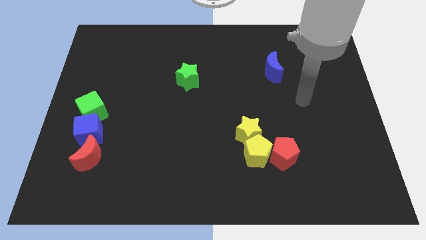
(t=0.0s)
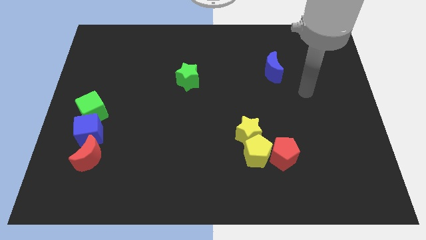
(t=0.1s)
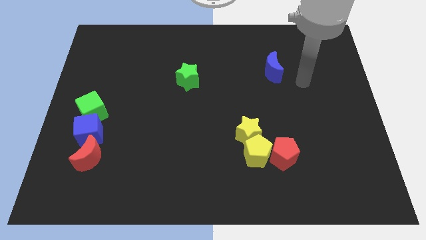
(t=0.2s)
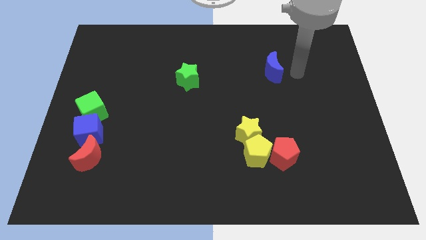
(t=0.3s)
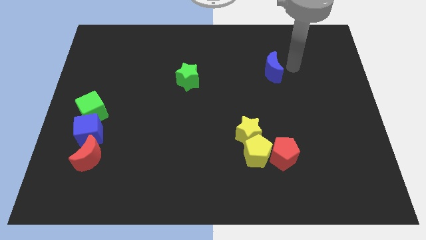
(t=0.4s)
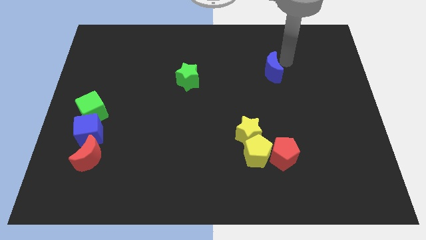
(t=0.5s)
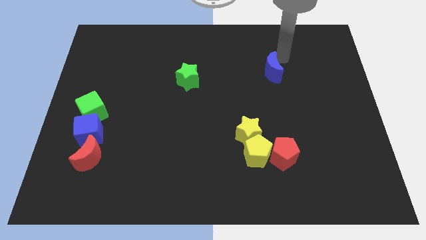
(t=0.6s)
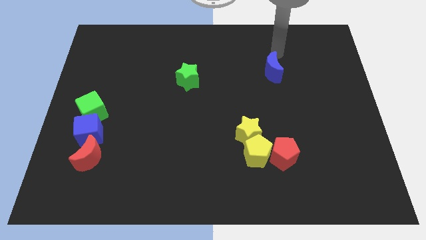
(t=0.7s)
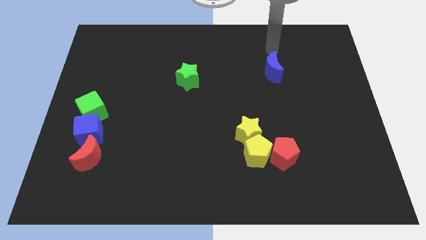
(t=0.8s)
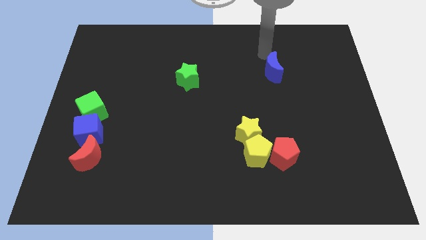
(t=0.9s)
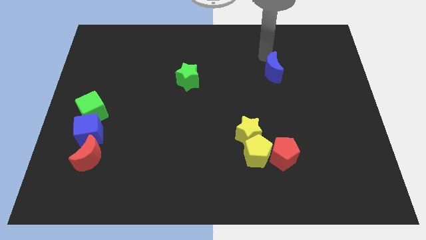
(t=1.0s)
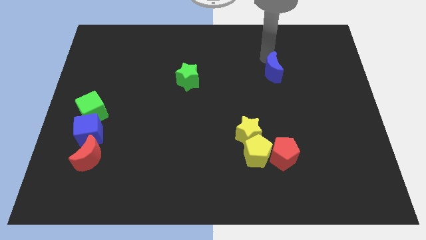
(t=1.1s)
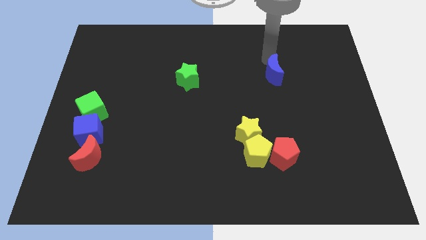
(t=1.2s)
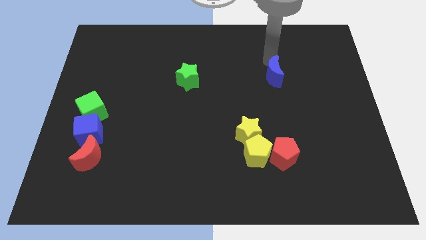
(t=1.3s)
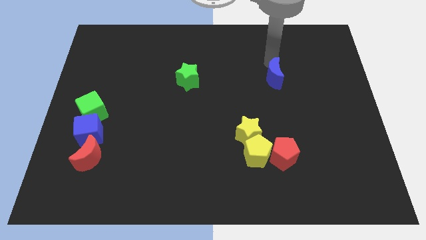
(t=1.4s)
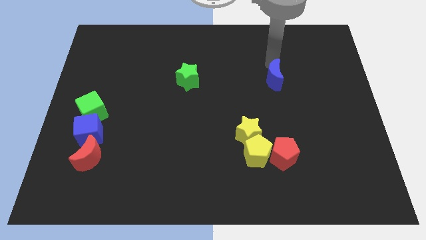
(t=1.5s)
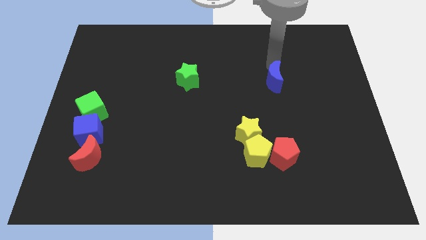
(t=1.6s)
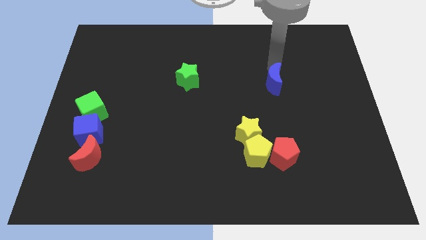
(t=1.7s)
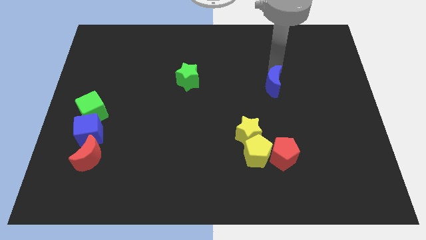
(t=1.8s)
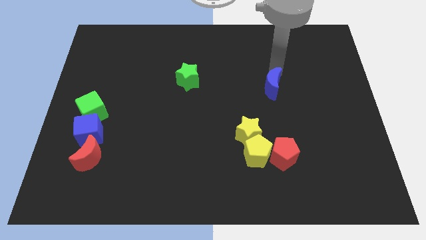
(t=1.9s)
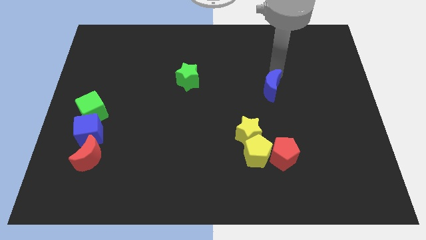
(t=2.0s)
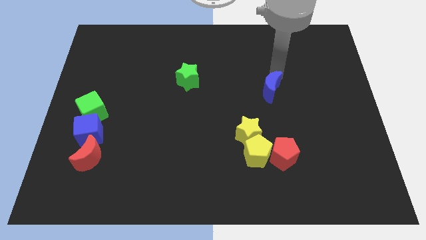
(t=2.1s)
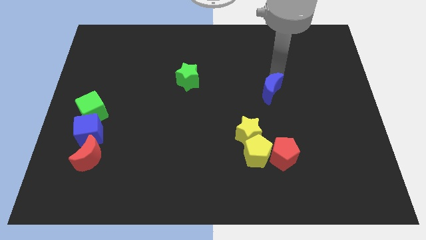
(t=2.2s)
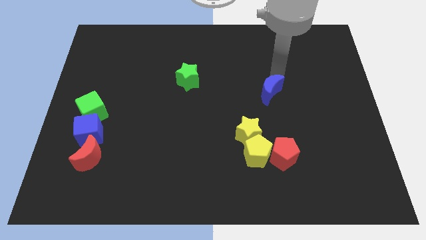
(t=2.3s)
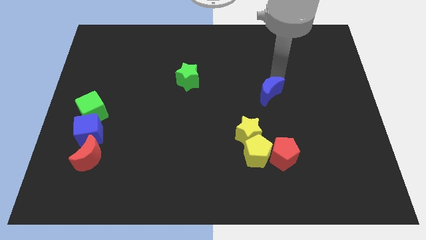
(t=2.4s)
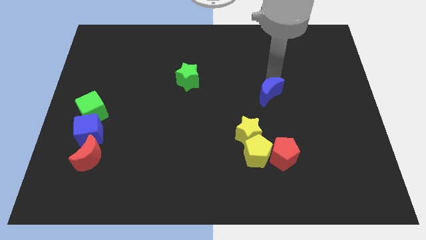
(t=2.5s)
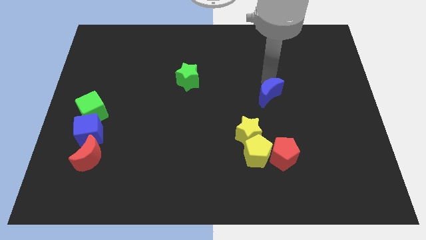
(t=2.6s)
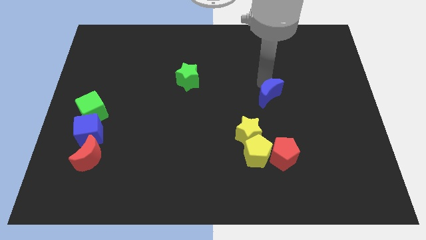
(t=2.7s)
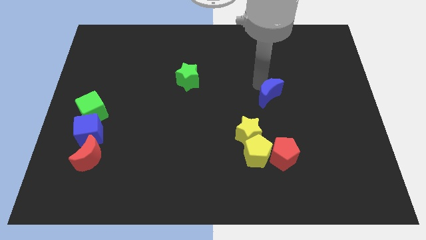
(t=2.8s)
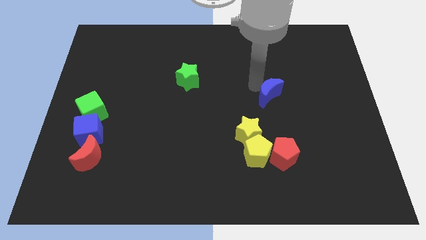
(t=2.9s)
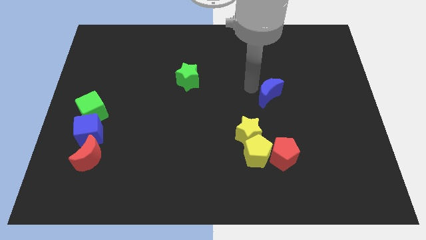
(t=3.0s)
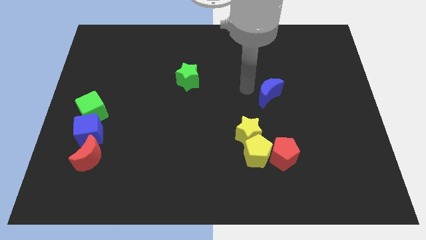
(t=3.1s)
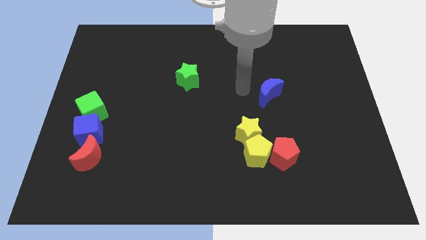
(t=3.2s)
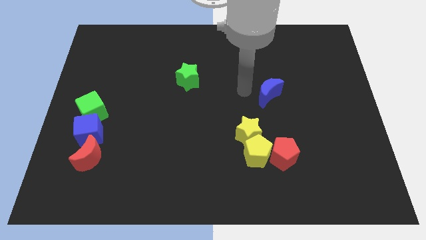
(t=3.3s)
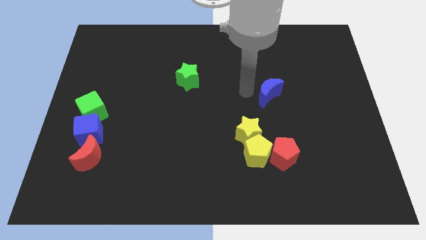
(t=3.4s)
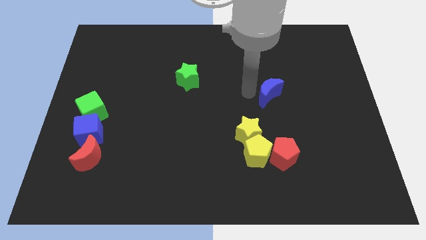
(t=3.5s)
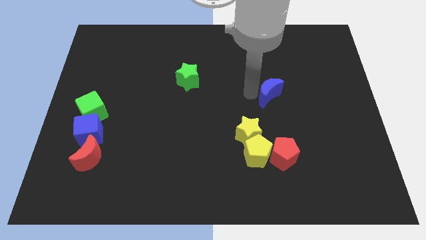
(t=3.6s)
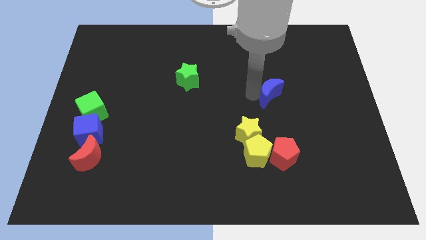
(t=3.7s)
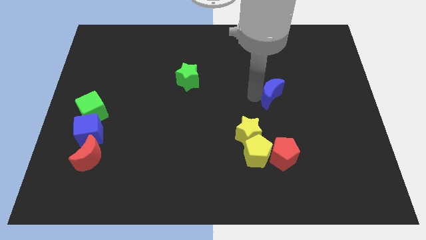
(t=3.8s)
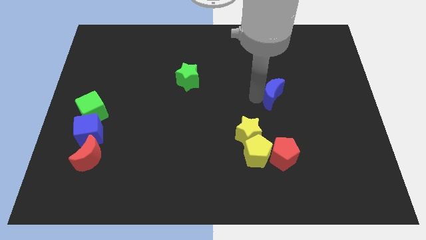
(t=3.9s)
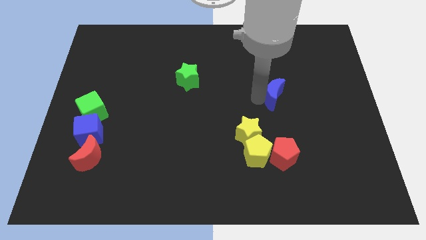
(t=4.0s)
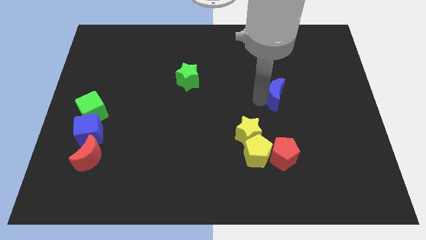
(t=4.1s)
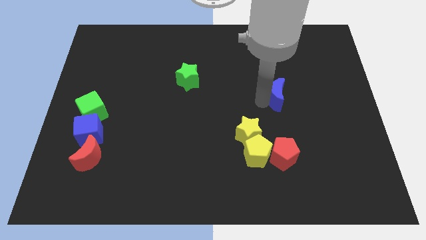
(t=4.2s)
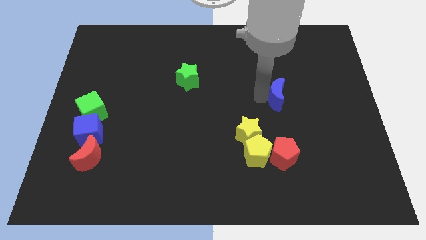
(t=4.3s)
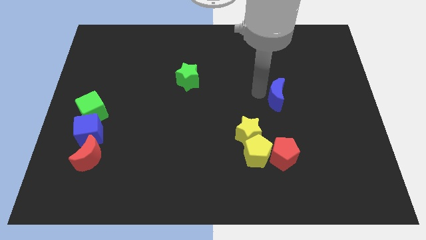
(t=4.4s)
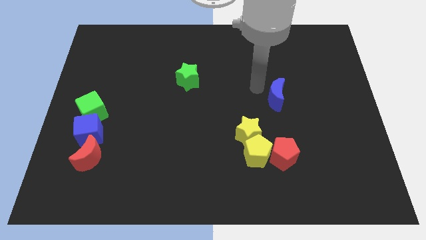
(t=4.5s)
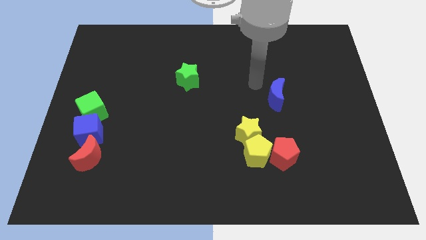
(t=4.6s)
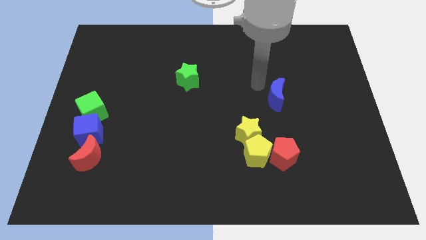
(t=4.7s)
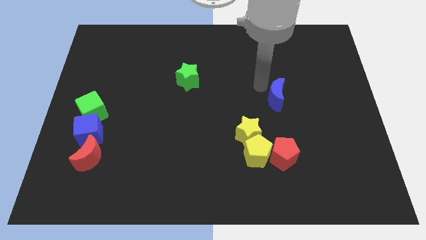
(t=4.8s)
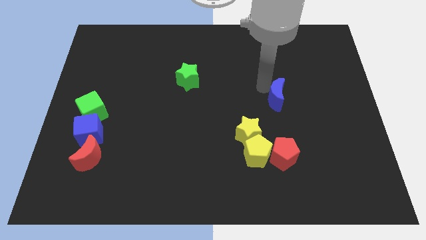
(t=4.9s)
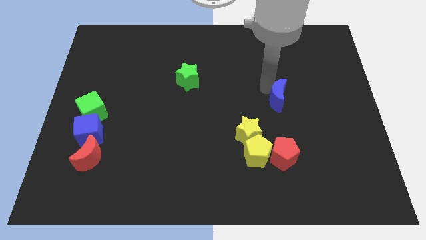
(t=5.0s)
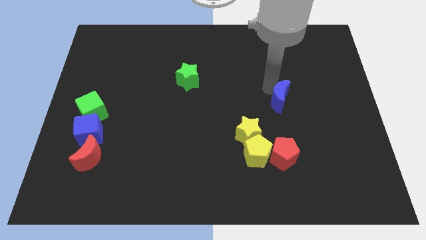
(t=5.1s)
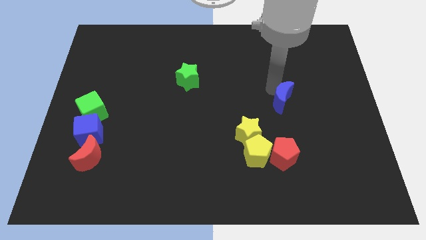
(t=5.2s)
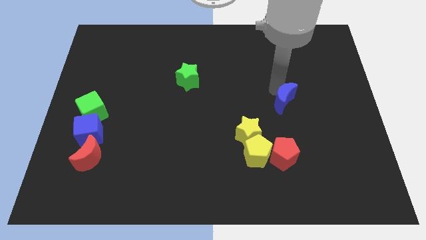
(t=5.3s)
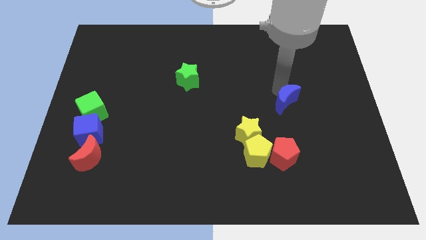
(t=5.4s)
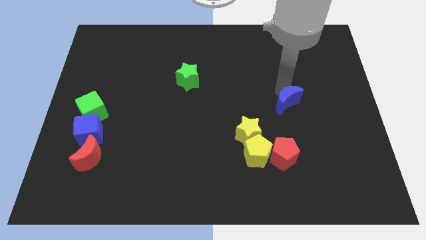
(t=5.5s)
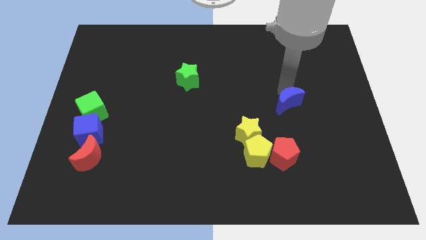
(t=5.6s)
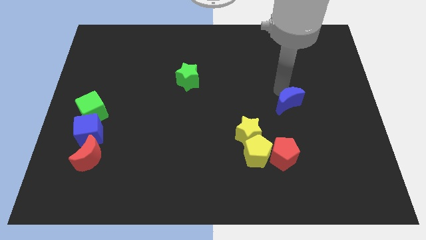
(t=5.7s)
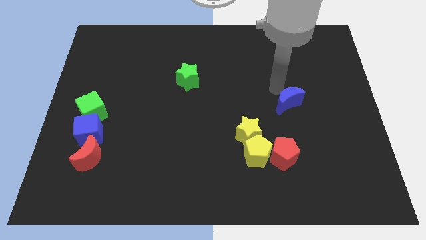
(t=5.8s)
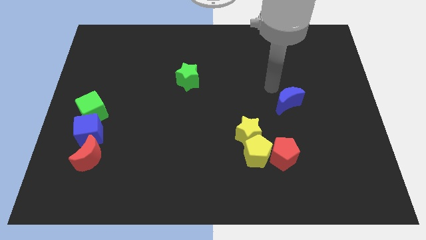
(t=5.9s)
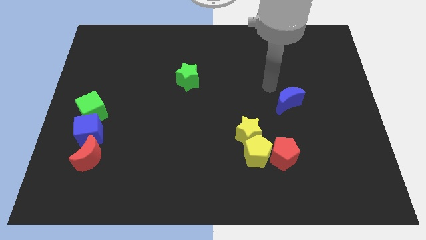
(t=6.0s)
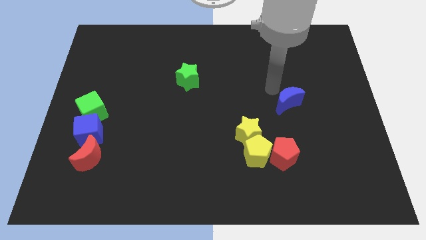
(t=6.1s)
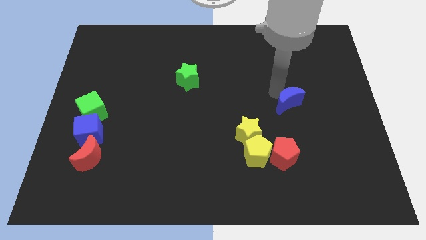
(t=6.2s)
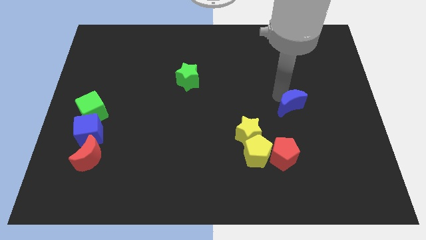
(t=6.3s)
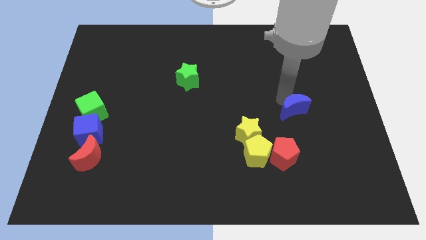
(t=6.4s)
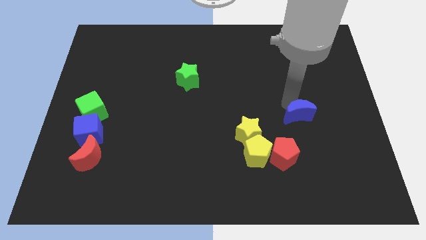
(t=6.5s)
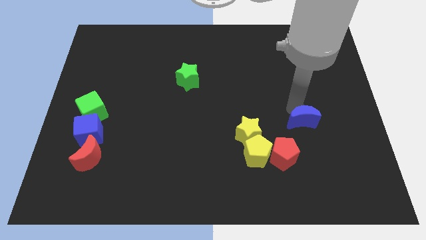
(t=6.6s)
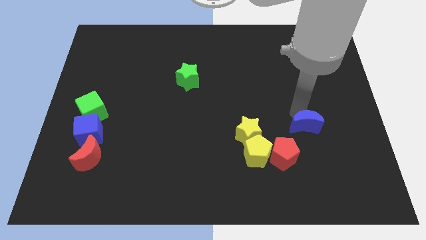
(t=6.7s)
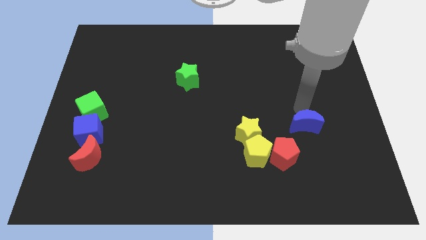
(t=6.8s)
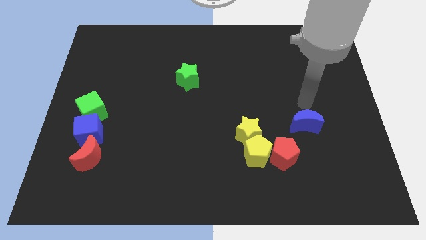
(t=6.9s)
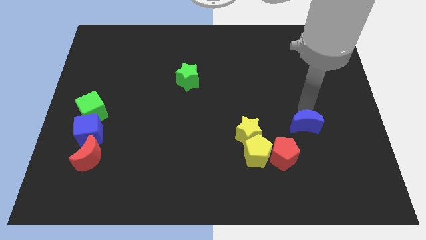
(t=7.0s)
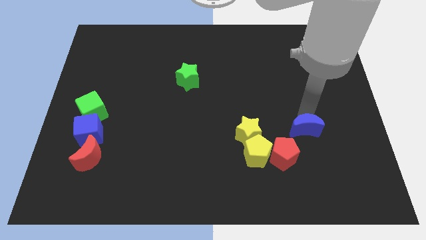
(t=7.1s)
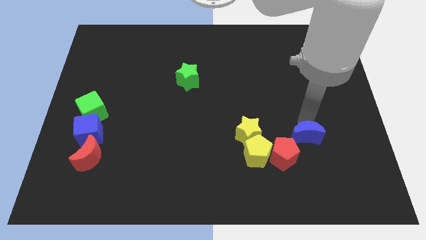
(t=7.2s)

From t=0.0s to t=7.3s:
move the blue moon to the right of the yellow pentagon
